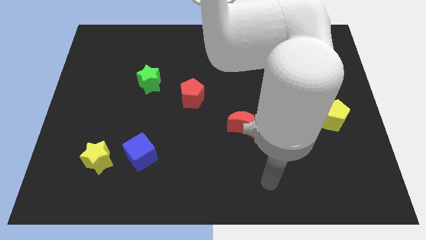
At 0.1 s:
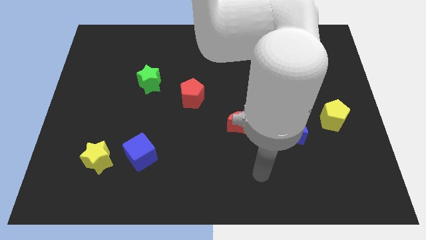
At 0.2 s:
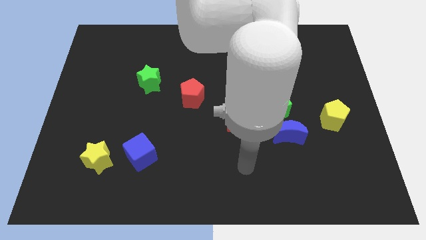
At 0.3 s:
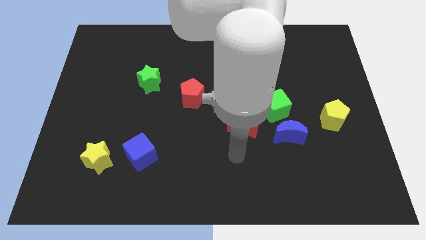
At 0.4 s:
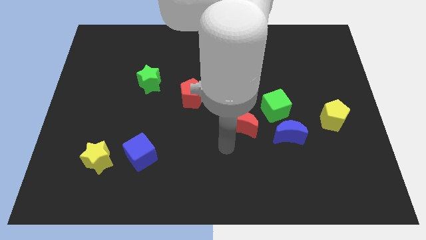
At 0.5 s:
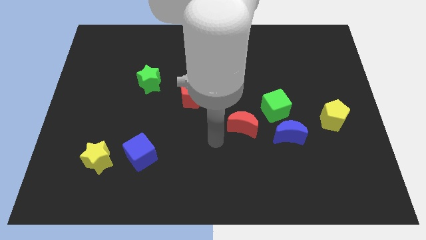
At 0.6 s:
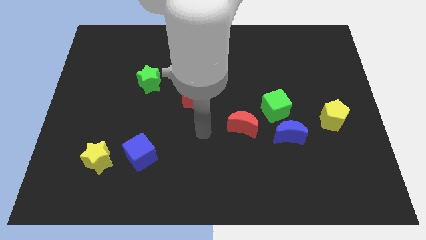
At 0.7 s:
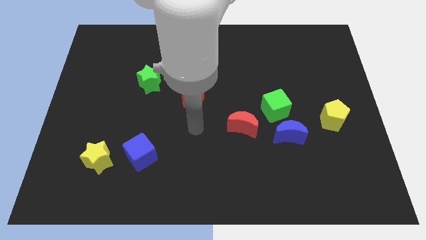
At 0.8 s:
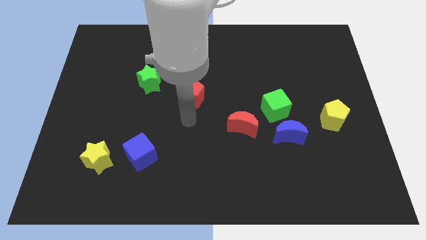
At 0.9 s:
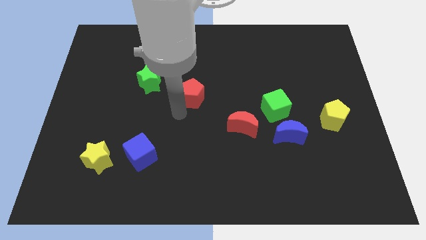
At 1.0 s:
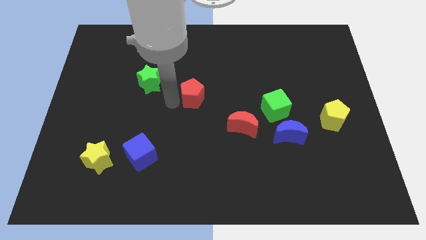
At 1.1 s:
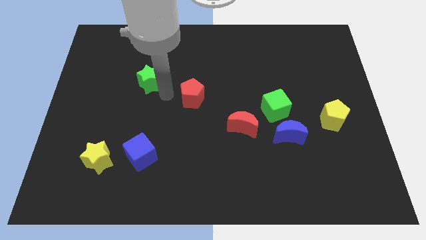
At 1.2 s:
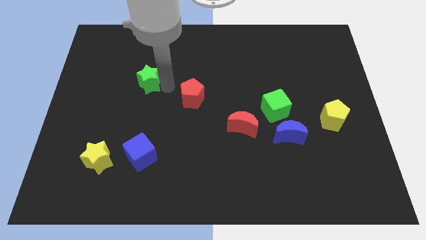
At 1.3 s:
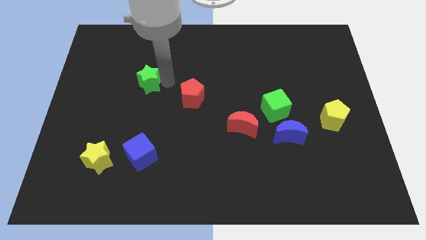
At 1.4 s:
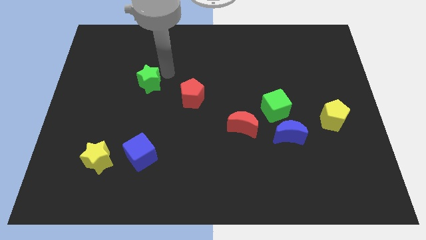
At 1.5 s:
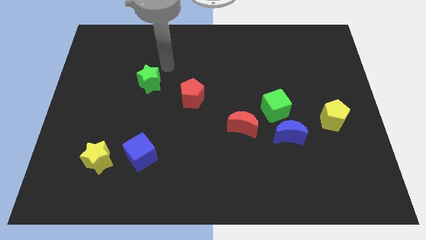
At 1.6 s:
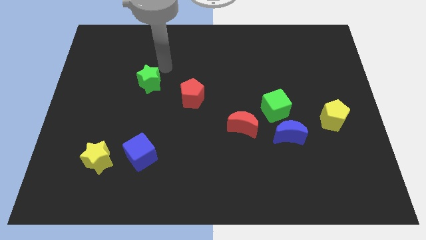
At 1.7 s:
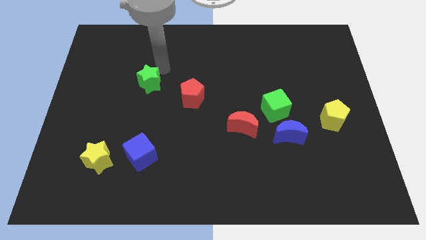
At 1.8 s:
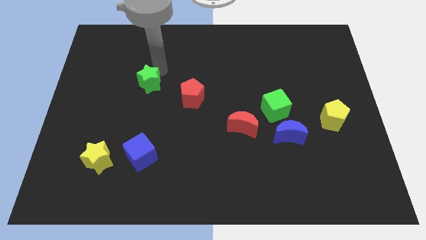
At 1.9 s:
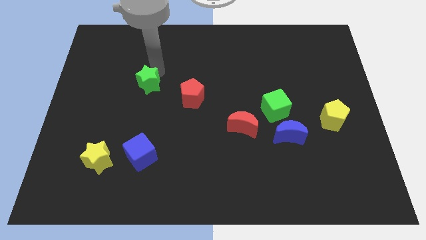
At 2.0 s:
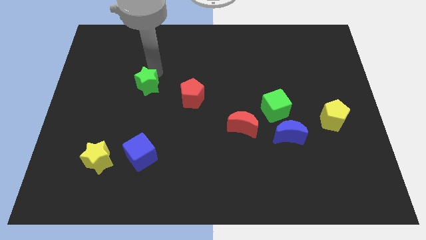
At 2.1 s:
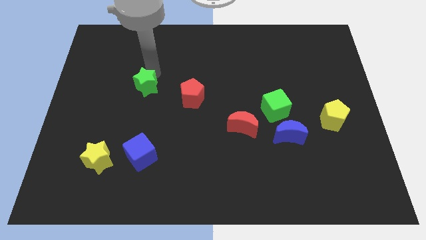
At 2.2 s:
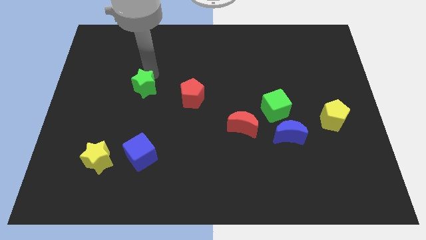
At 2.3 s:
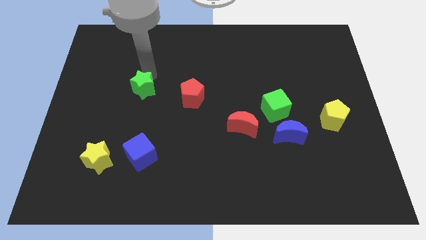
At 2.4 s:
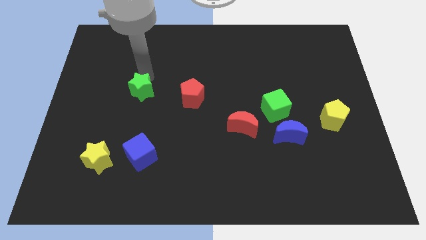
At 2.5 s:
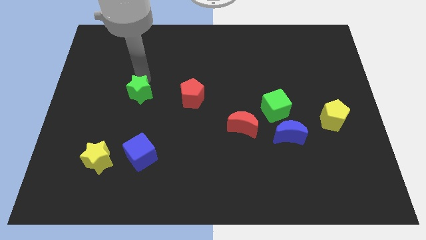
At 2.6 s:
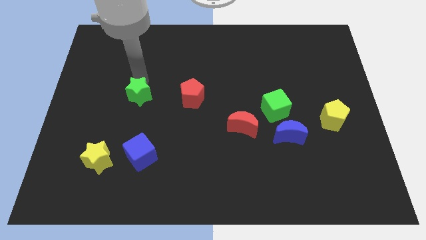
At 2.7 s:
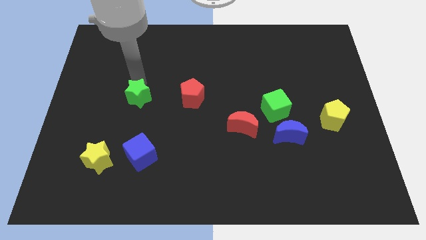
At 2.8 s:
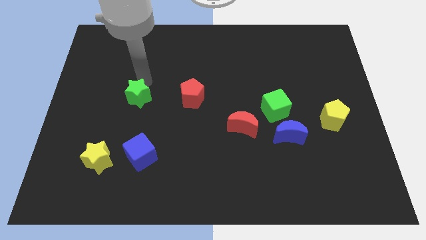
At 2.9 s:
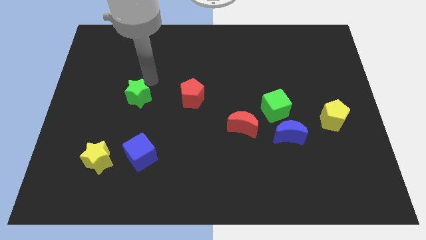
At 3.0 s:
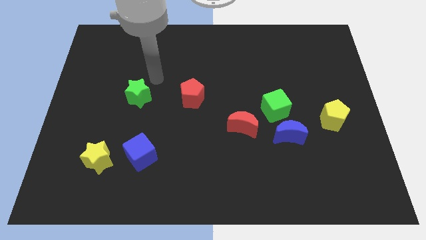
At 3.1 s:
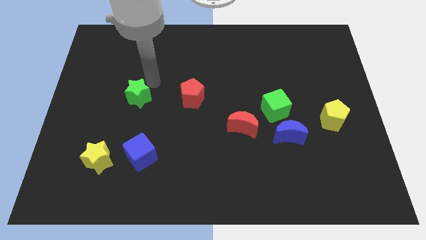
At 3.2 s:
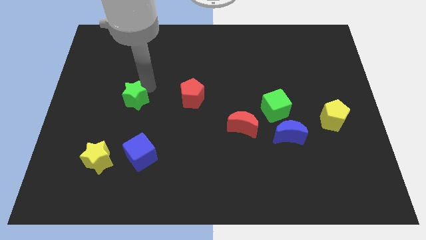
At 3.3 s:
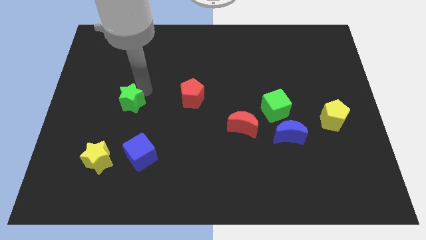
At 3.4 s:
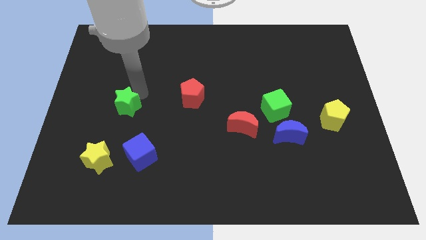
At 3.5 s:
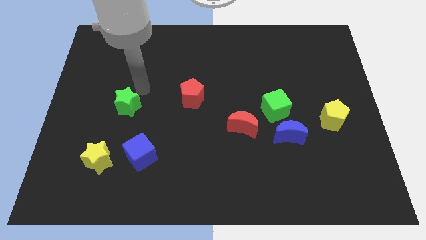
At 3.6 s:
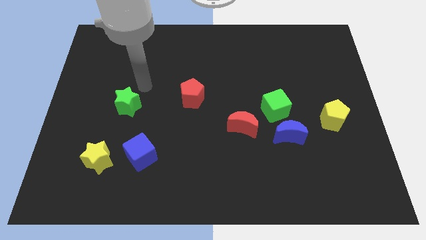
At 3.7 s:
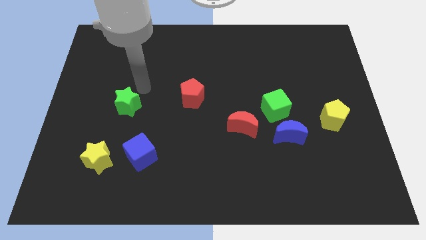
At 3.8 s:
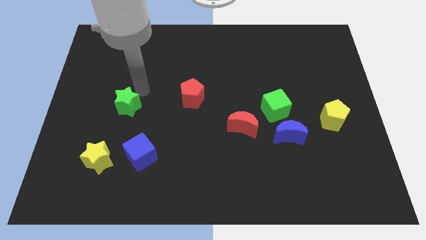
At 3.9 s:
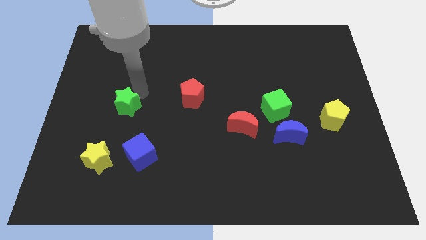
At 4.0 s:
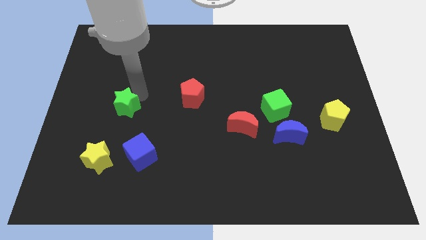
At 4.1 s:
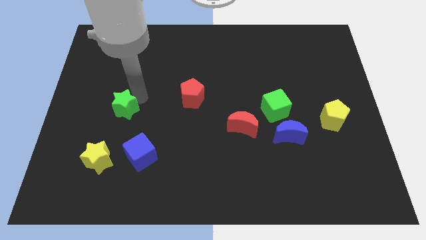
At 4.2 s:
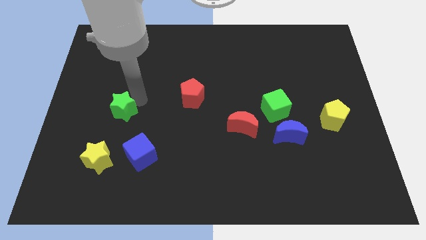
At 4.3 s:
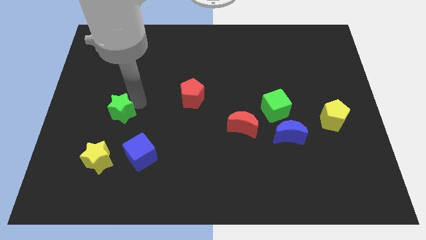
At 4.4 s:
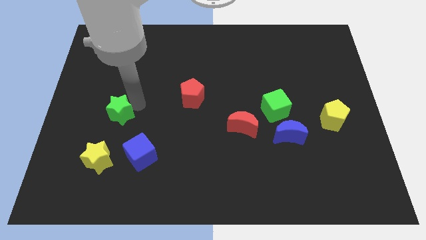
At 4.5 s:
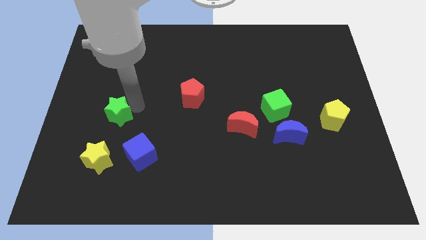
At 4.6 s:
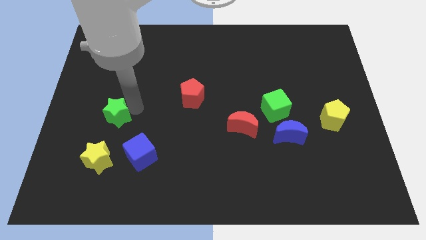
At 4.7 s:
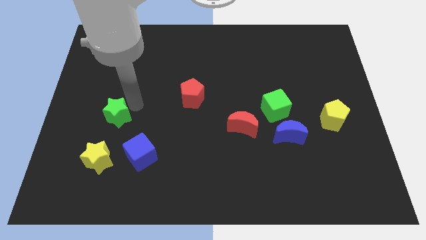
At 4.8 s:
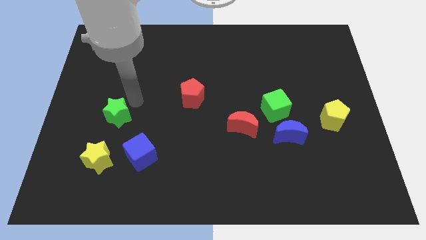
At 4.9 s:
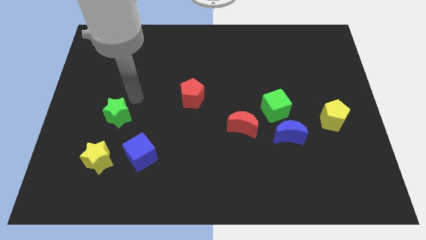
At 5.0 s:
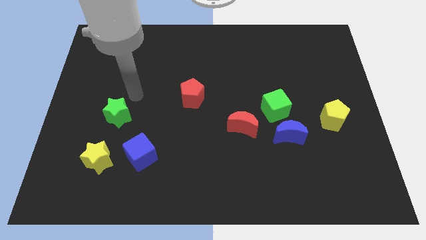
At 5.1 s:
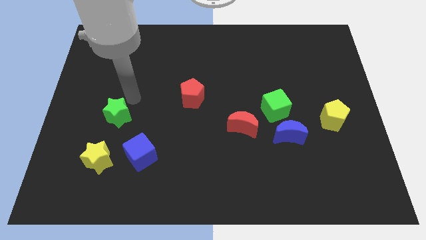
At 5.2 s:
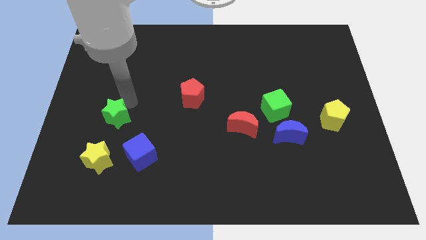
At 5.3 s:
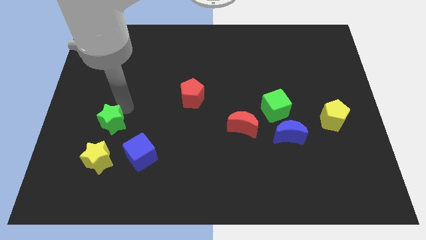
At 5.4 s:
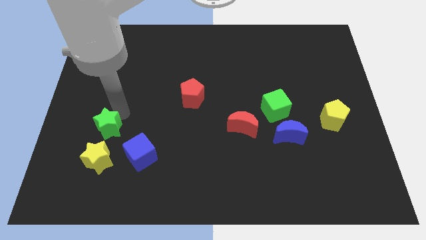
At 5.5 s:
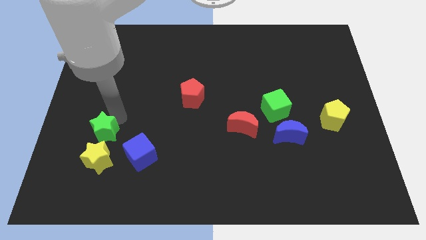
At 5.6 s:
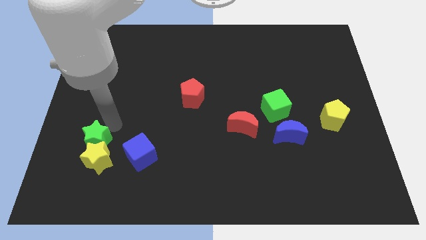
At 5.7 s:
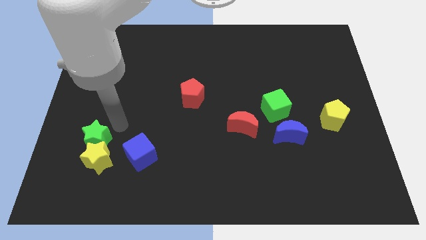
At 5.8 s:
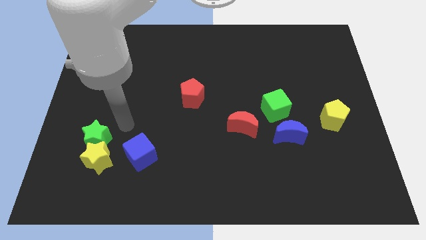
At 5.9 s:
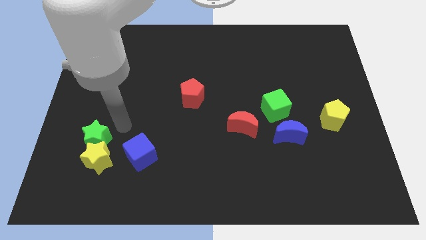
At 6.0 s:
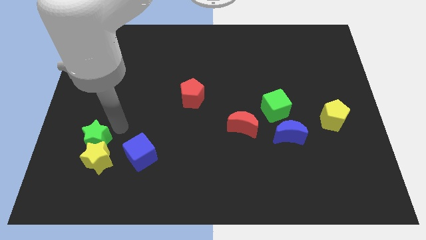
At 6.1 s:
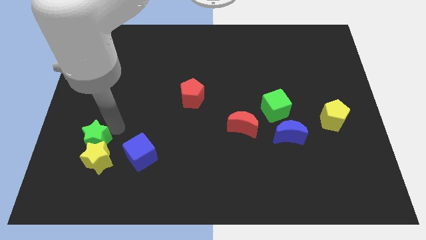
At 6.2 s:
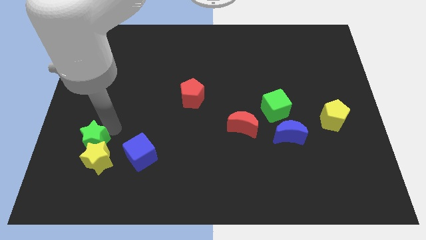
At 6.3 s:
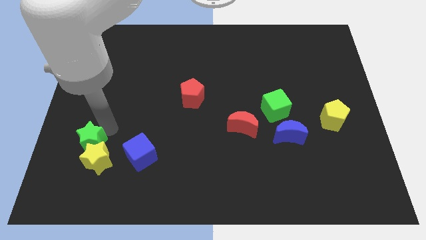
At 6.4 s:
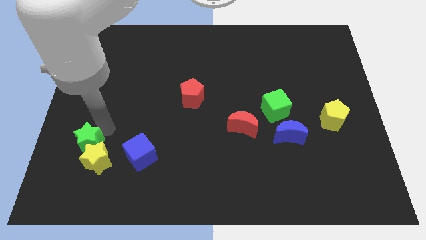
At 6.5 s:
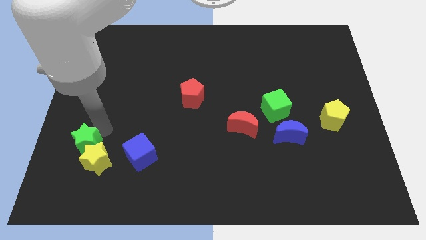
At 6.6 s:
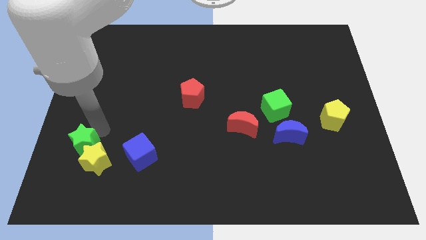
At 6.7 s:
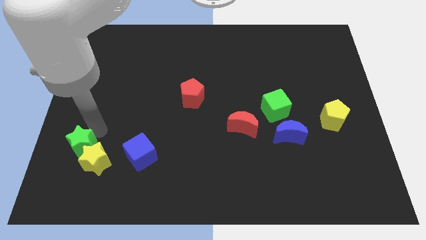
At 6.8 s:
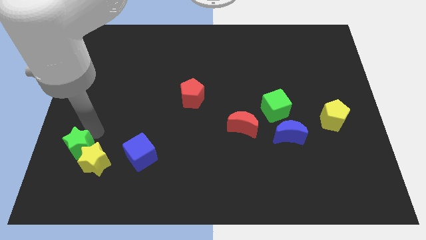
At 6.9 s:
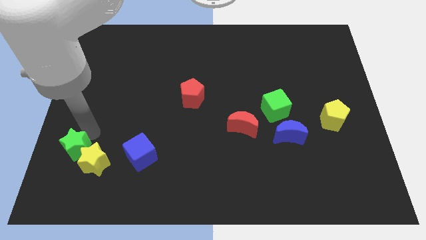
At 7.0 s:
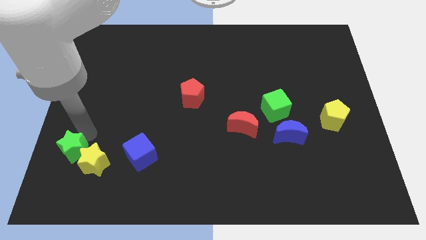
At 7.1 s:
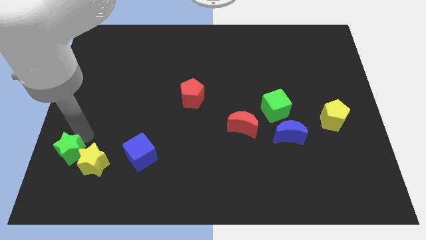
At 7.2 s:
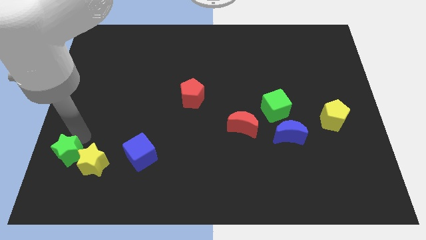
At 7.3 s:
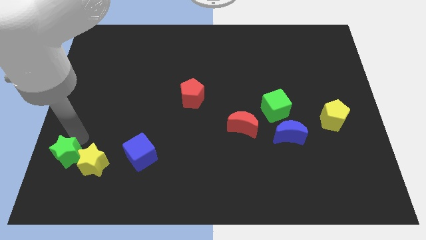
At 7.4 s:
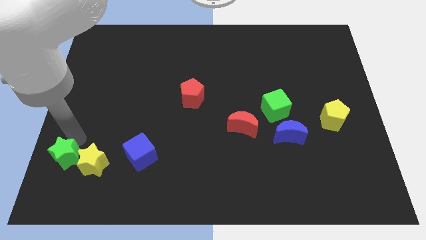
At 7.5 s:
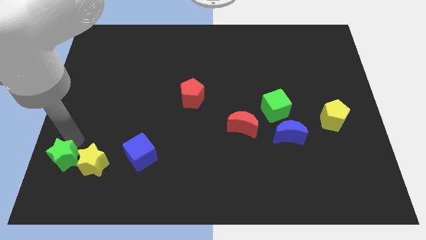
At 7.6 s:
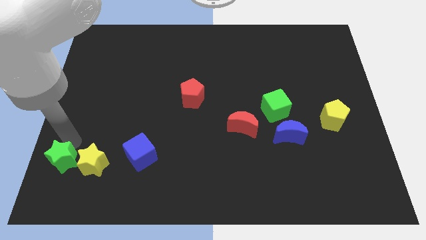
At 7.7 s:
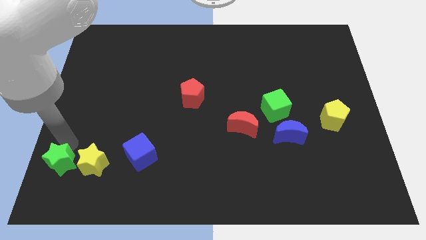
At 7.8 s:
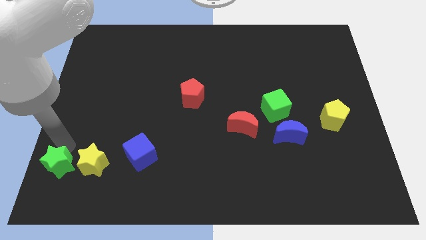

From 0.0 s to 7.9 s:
push the green star to the bottom left corner
